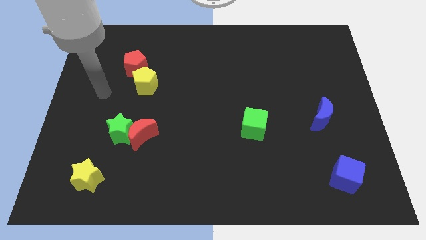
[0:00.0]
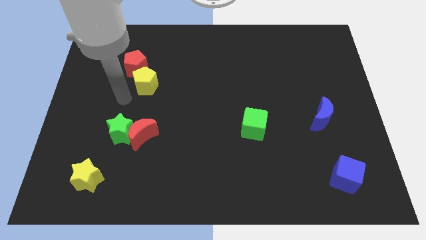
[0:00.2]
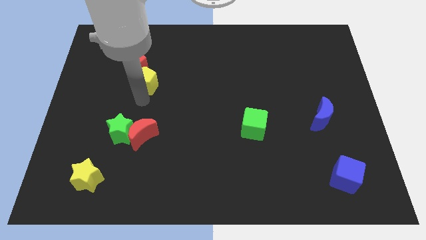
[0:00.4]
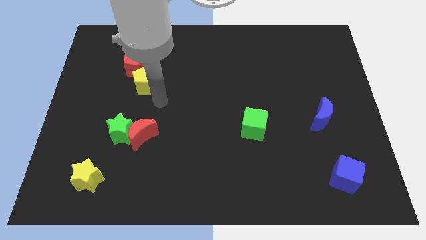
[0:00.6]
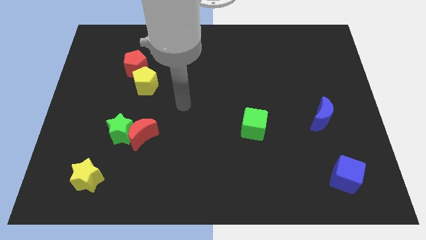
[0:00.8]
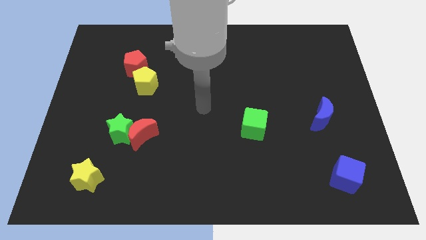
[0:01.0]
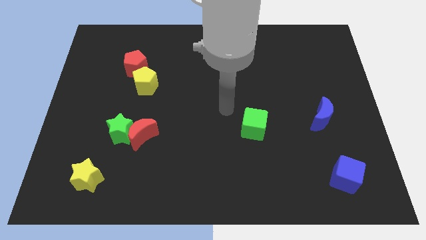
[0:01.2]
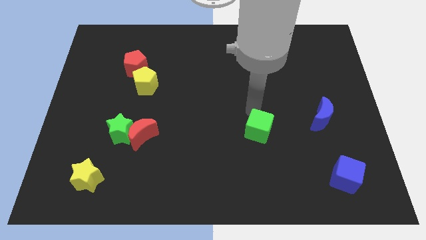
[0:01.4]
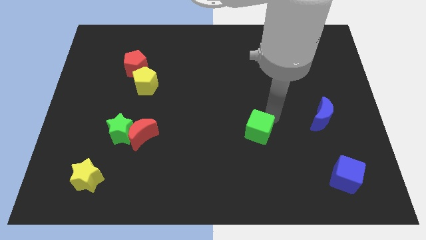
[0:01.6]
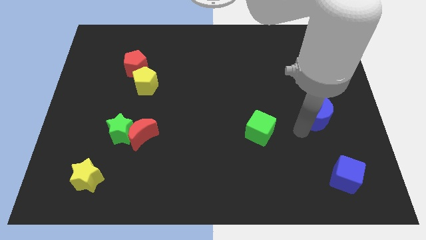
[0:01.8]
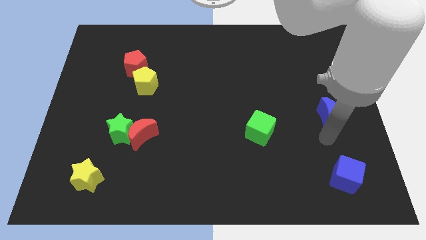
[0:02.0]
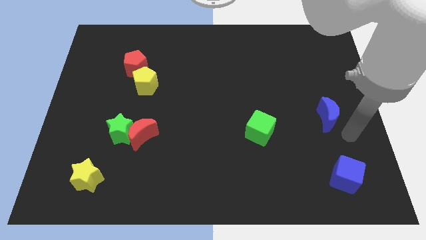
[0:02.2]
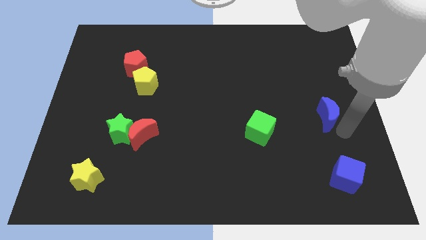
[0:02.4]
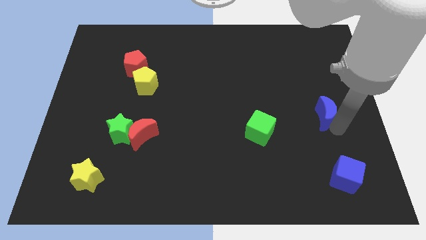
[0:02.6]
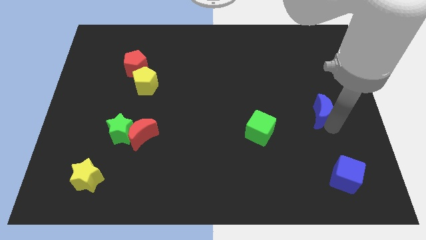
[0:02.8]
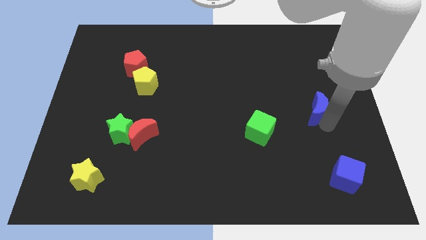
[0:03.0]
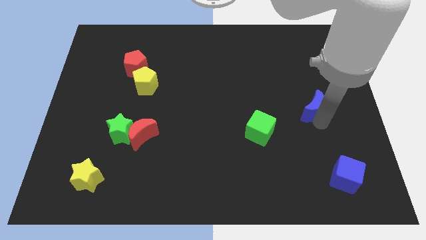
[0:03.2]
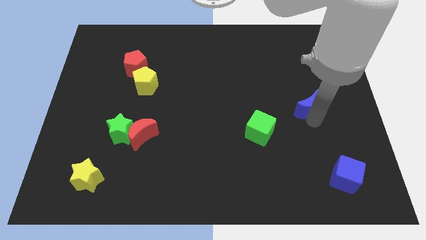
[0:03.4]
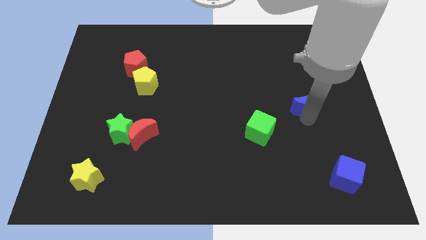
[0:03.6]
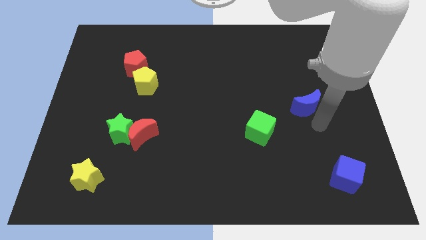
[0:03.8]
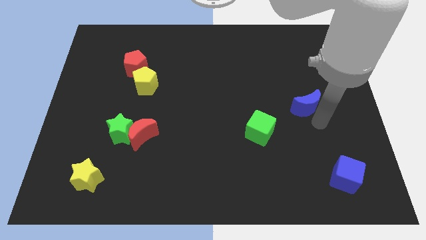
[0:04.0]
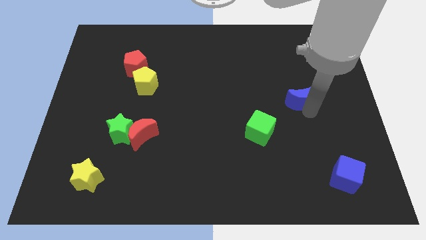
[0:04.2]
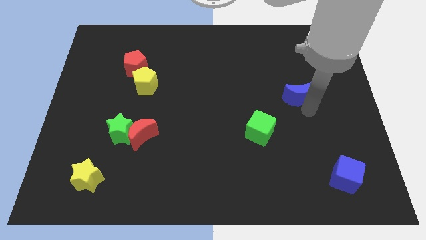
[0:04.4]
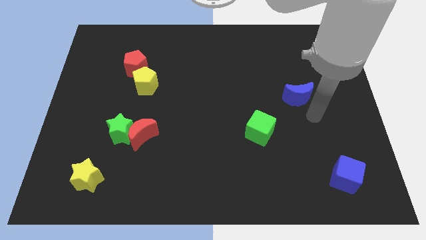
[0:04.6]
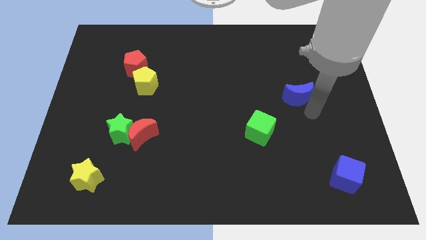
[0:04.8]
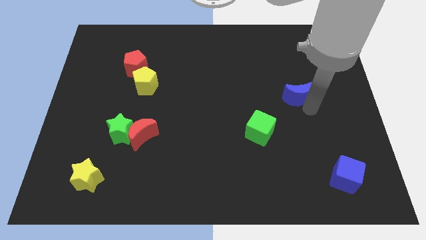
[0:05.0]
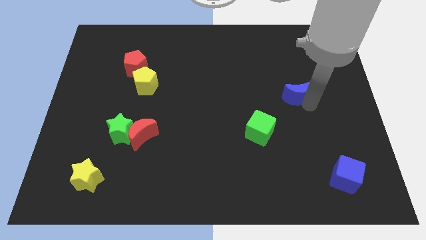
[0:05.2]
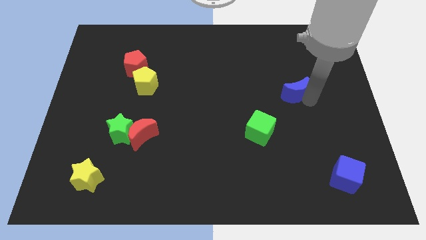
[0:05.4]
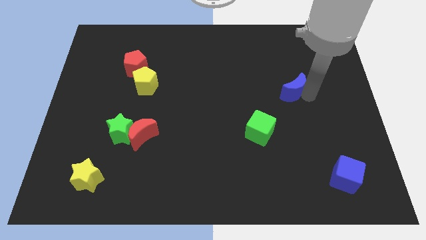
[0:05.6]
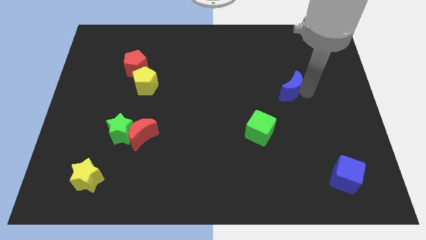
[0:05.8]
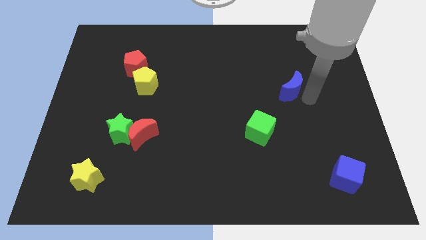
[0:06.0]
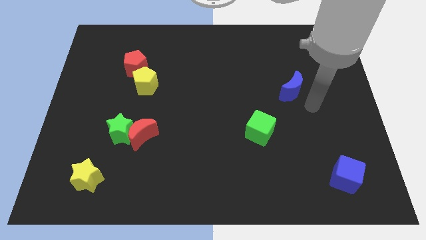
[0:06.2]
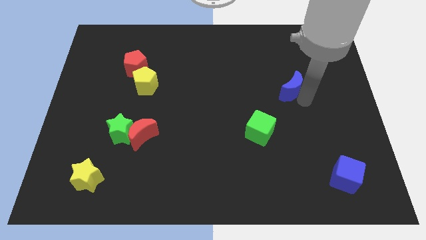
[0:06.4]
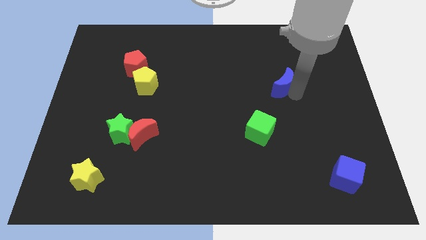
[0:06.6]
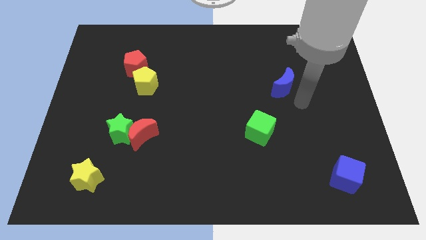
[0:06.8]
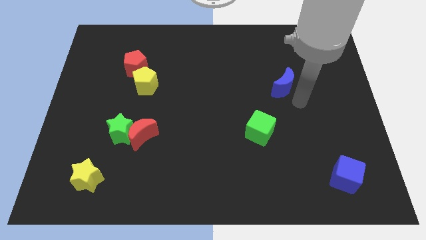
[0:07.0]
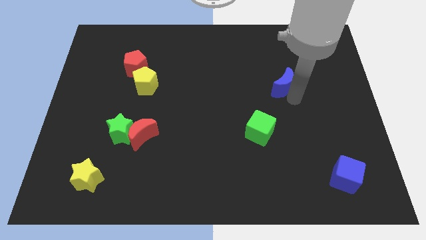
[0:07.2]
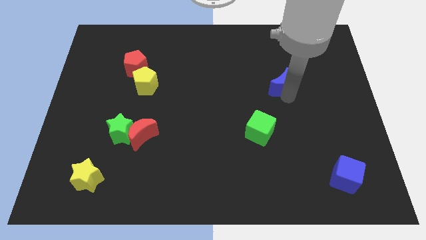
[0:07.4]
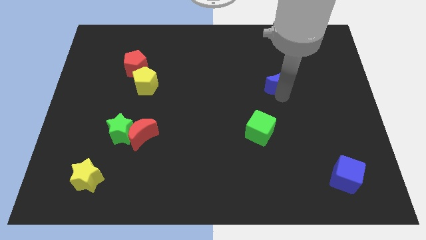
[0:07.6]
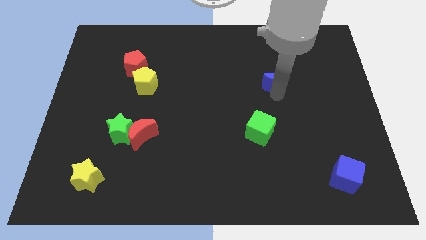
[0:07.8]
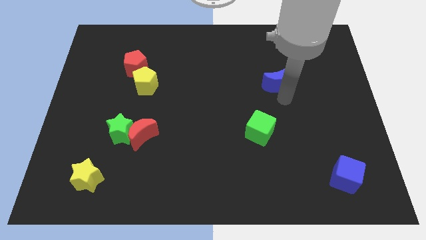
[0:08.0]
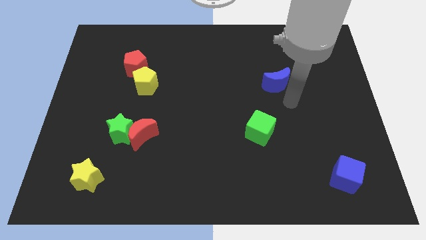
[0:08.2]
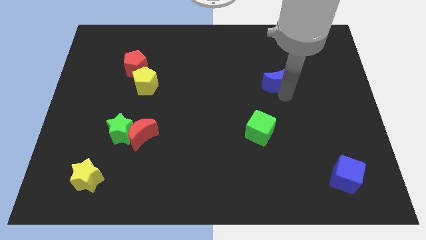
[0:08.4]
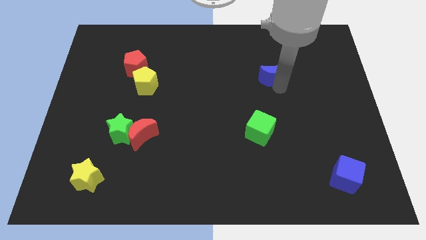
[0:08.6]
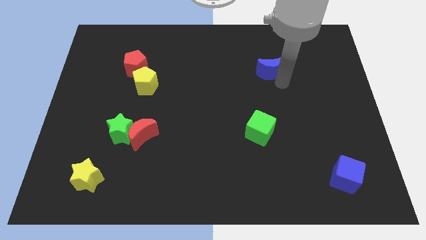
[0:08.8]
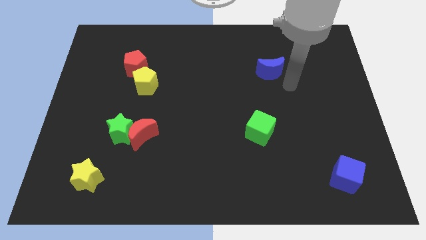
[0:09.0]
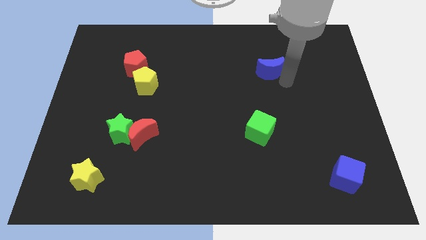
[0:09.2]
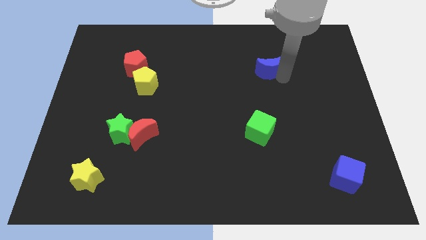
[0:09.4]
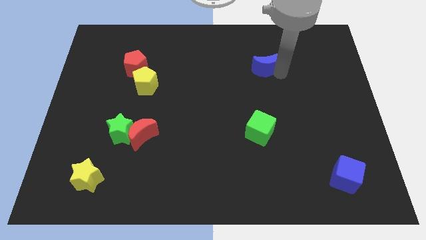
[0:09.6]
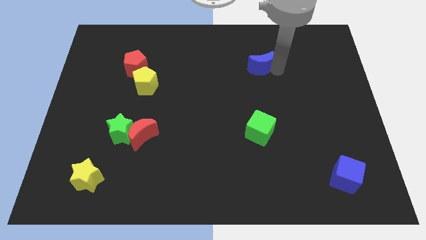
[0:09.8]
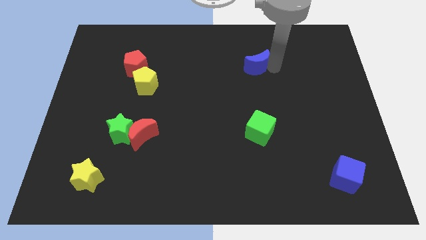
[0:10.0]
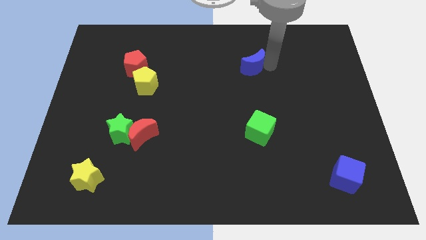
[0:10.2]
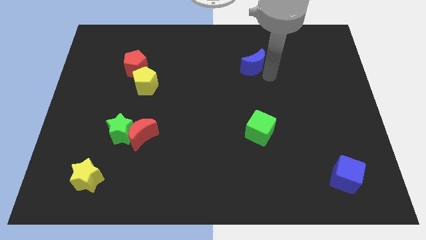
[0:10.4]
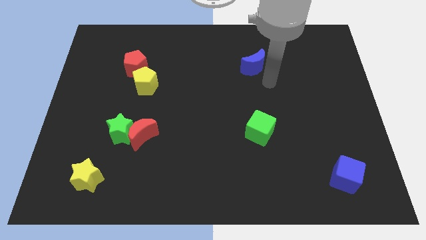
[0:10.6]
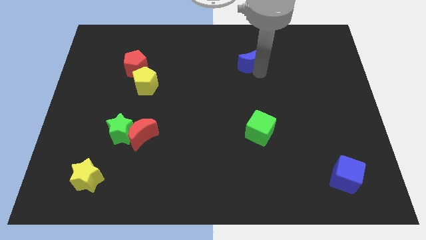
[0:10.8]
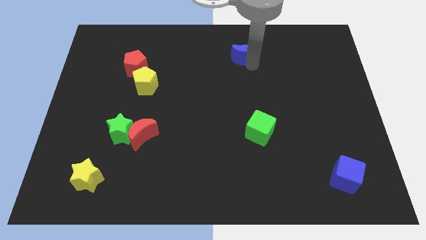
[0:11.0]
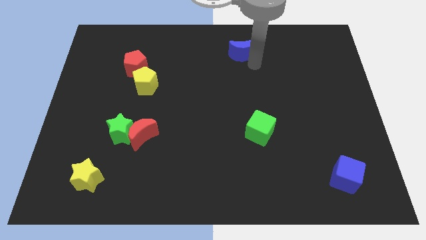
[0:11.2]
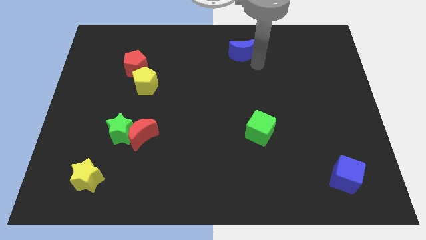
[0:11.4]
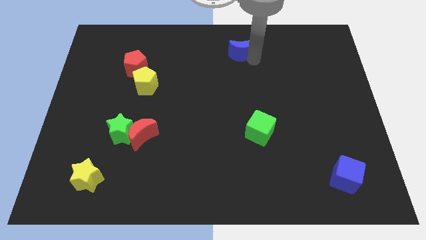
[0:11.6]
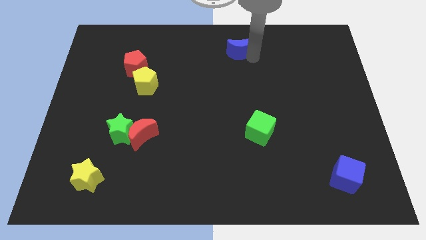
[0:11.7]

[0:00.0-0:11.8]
slide the blue moon to the towards your base
